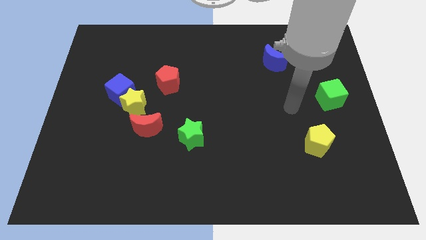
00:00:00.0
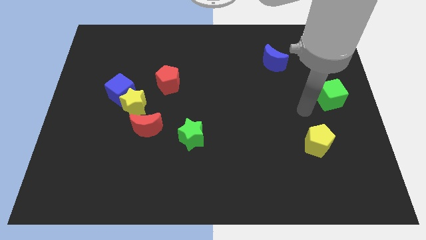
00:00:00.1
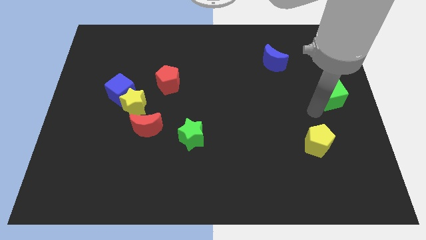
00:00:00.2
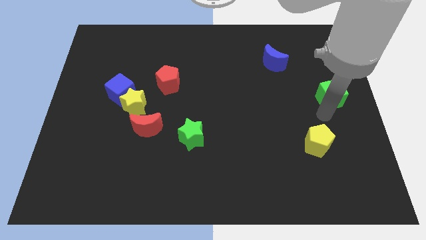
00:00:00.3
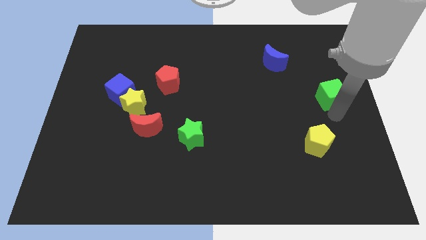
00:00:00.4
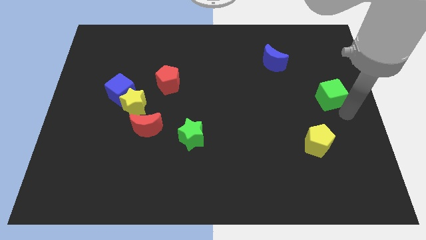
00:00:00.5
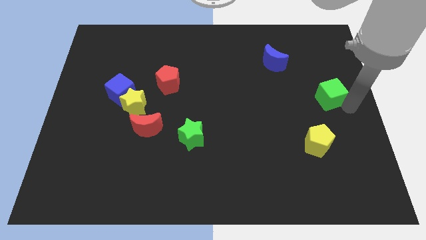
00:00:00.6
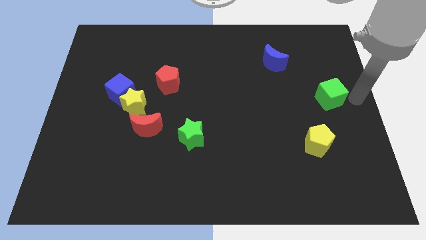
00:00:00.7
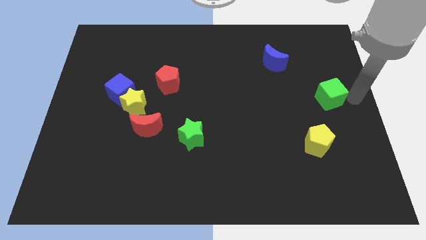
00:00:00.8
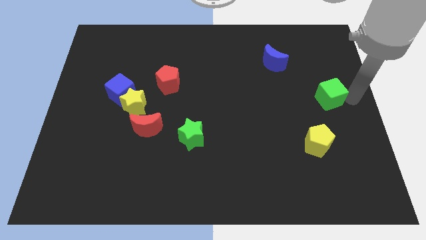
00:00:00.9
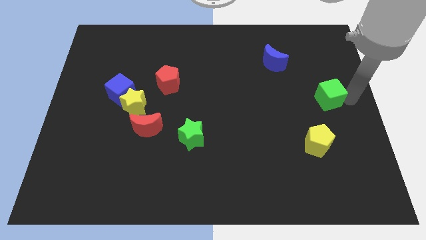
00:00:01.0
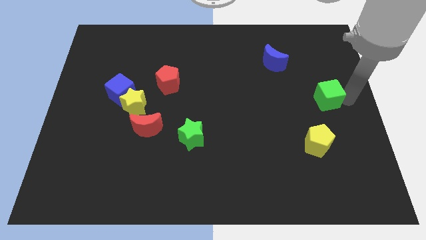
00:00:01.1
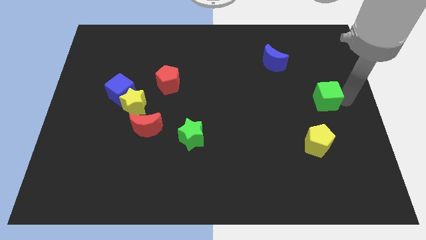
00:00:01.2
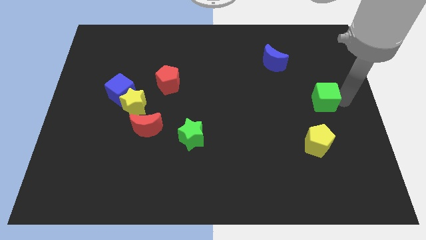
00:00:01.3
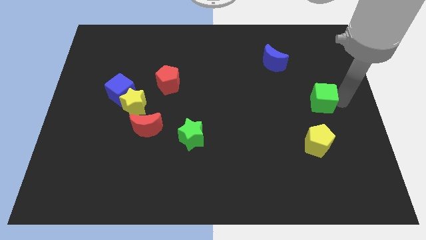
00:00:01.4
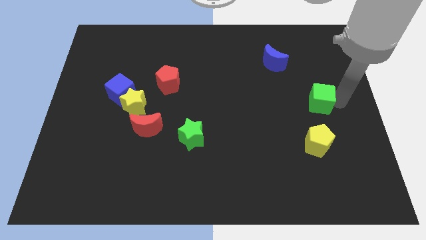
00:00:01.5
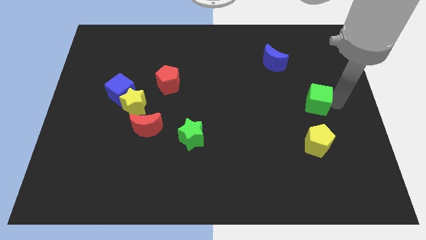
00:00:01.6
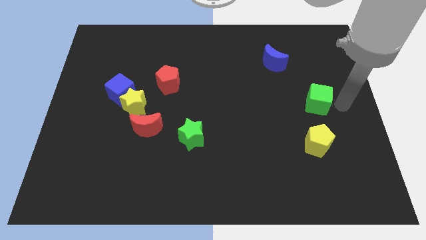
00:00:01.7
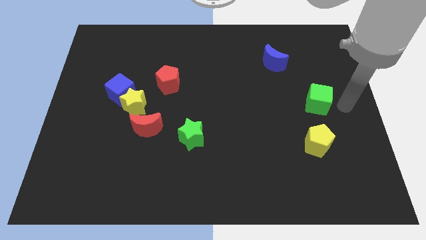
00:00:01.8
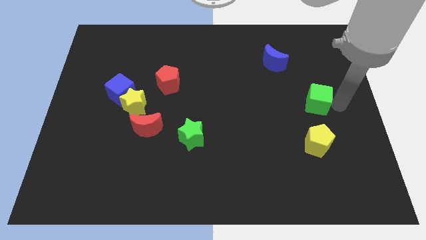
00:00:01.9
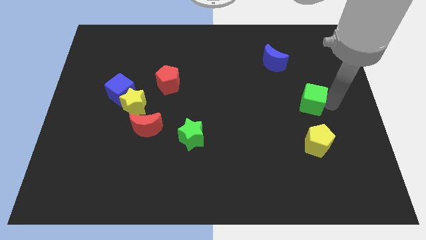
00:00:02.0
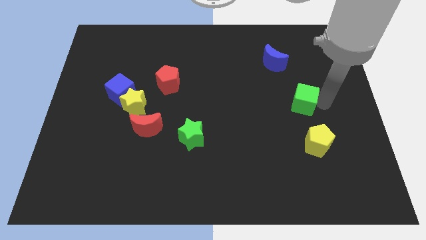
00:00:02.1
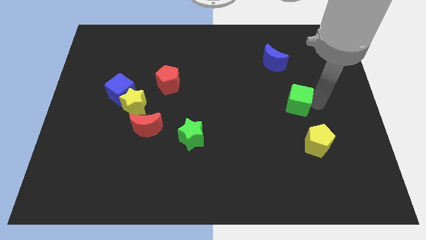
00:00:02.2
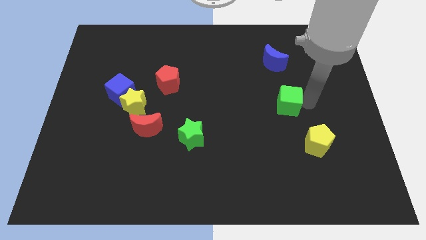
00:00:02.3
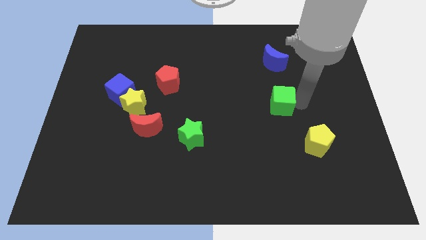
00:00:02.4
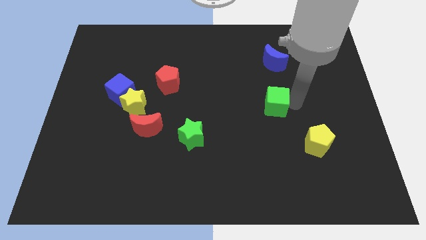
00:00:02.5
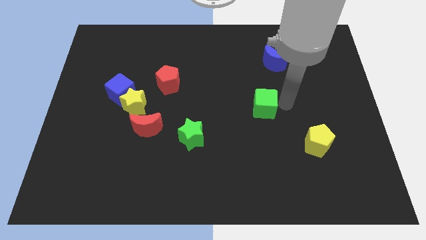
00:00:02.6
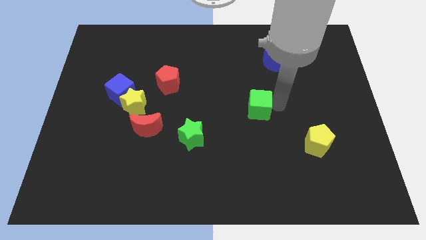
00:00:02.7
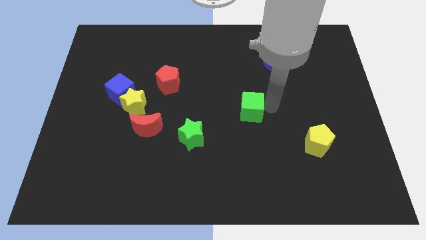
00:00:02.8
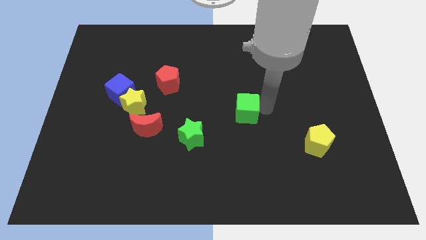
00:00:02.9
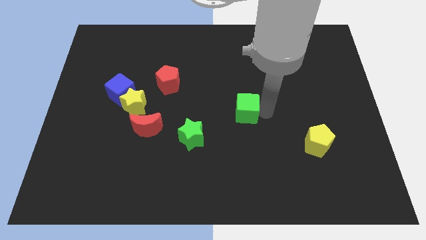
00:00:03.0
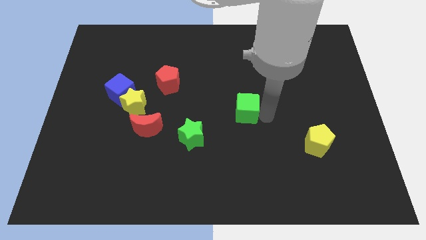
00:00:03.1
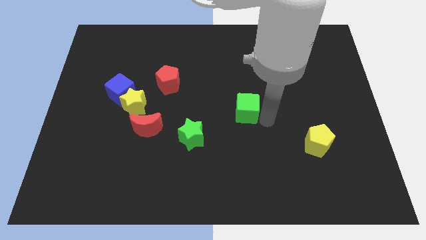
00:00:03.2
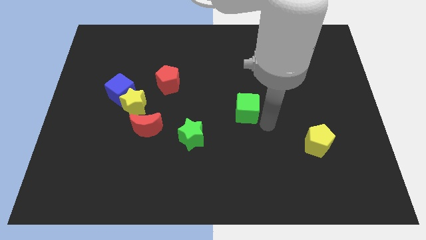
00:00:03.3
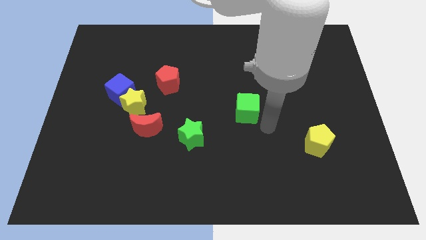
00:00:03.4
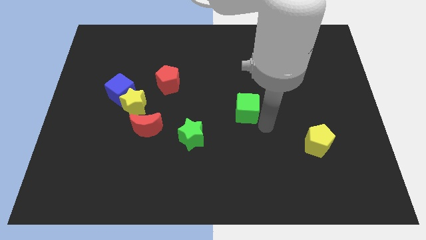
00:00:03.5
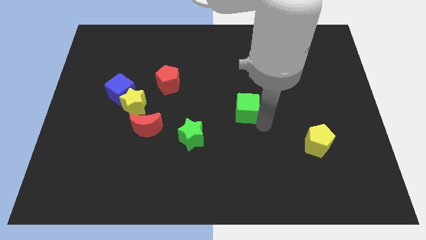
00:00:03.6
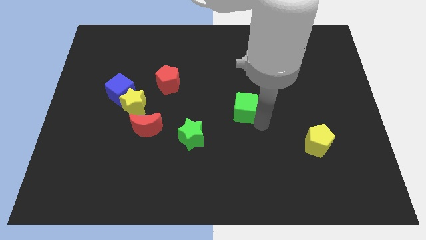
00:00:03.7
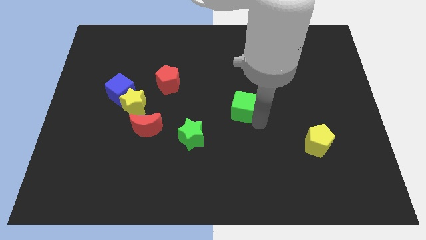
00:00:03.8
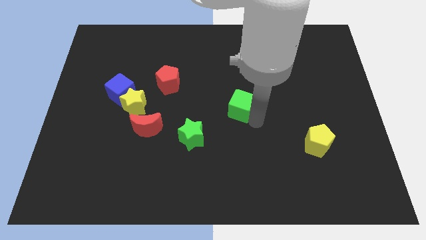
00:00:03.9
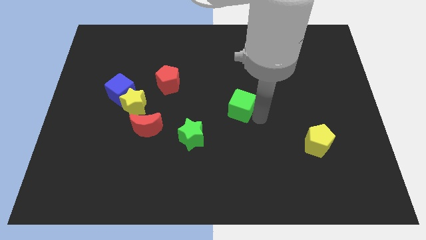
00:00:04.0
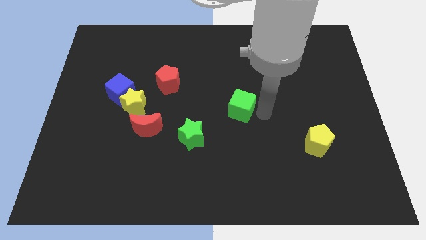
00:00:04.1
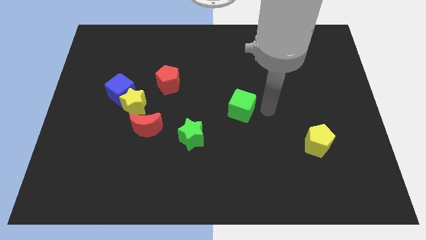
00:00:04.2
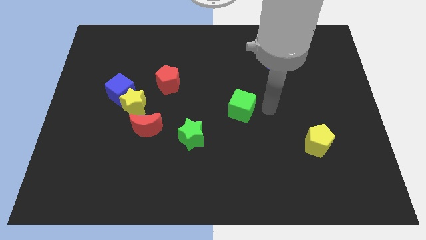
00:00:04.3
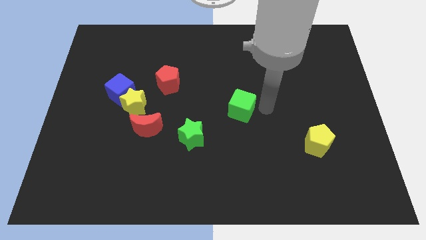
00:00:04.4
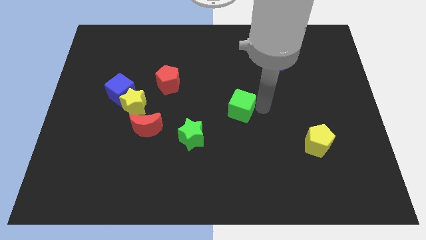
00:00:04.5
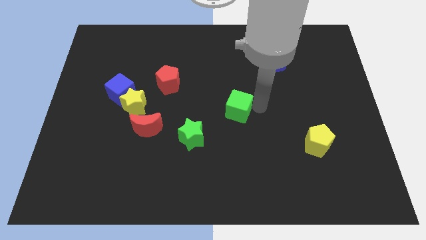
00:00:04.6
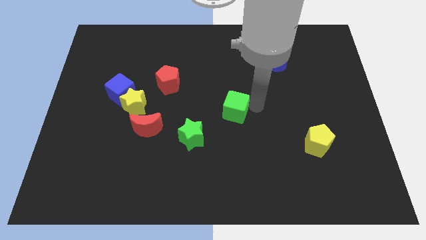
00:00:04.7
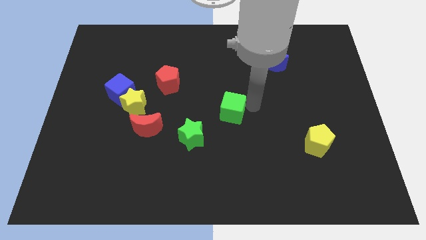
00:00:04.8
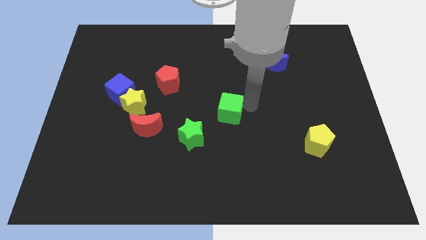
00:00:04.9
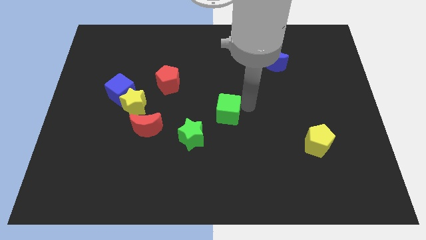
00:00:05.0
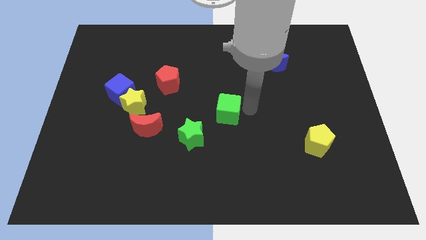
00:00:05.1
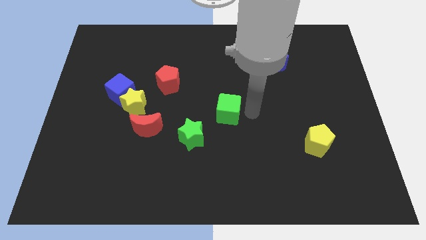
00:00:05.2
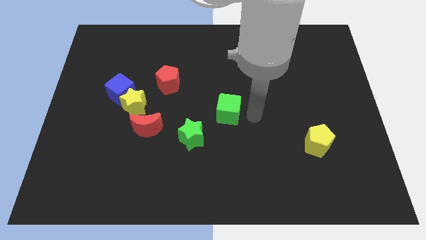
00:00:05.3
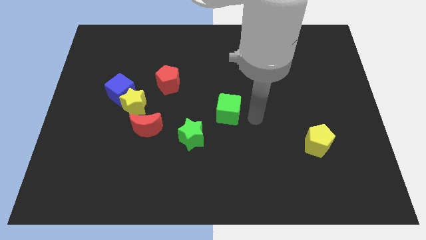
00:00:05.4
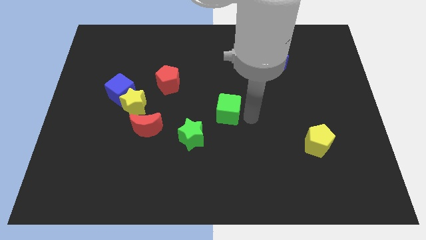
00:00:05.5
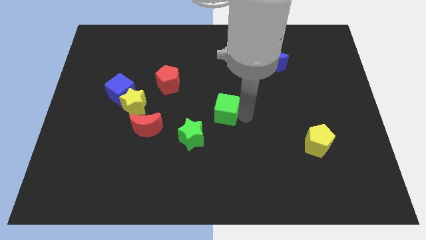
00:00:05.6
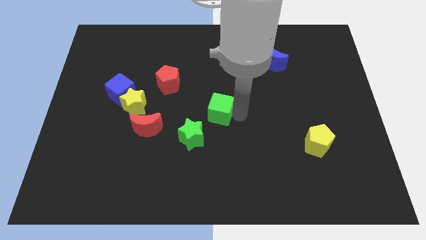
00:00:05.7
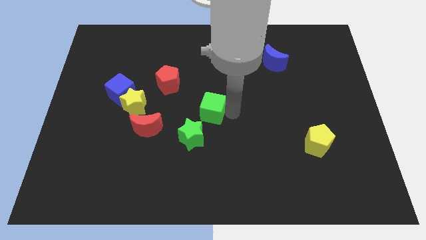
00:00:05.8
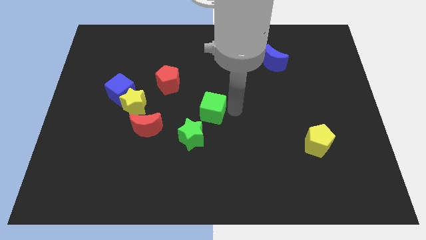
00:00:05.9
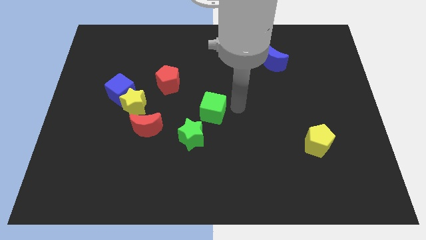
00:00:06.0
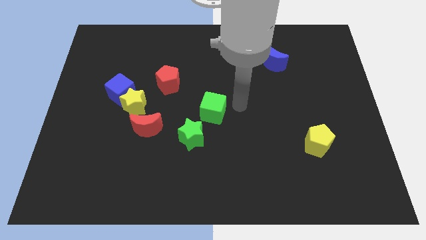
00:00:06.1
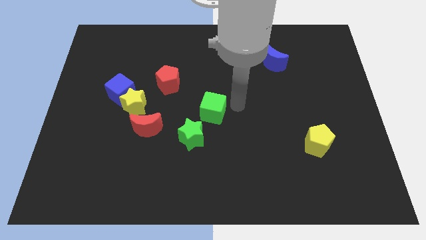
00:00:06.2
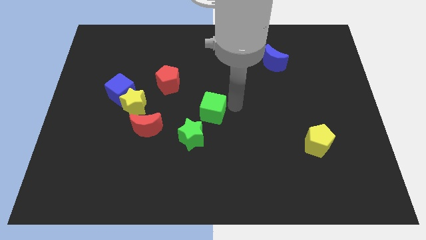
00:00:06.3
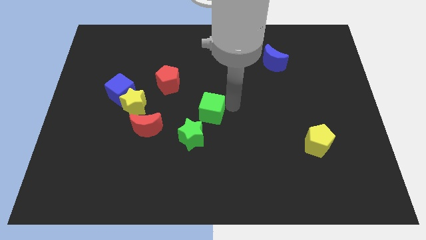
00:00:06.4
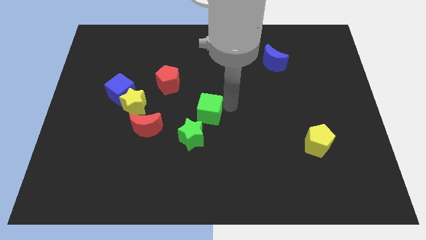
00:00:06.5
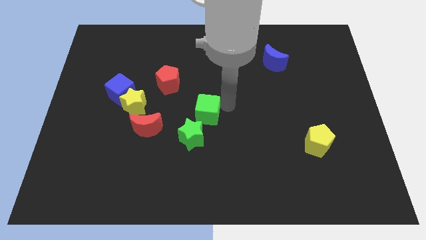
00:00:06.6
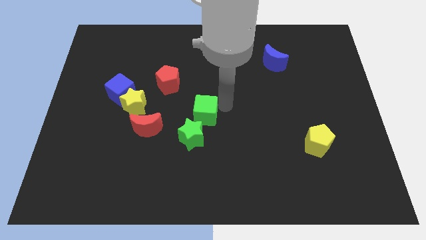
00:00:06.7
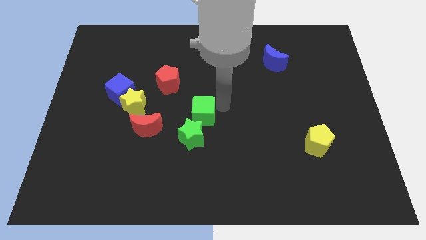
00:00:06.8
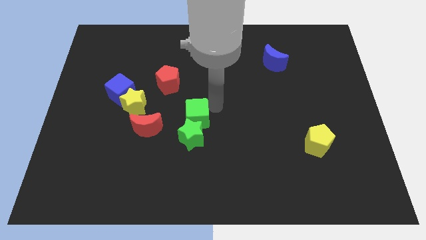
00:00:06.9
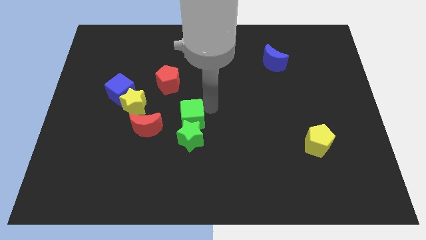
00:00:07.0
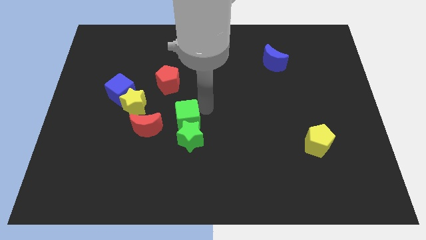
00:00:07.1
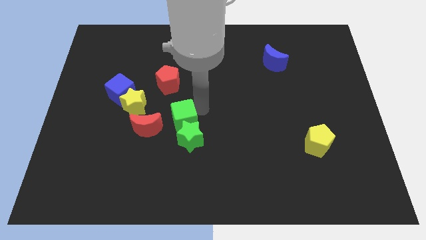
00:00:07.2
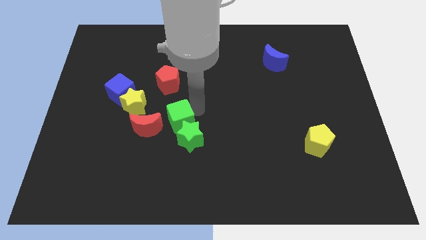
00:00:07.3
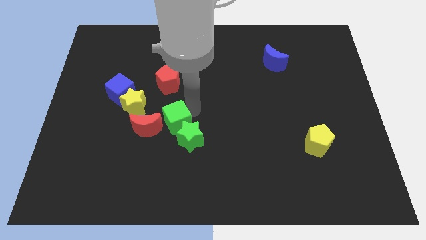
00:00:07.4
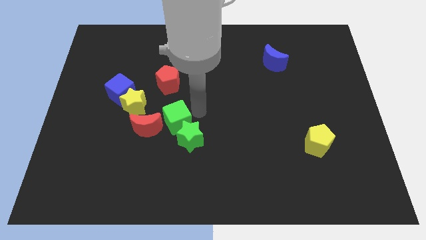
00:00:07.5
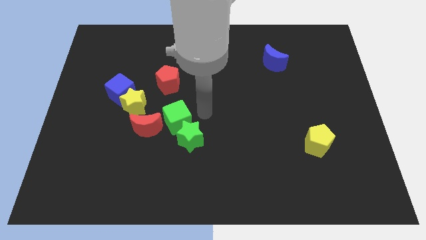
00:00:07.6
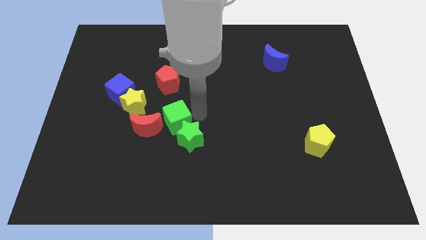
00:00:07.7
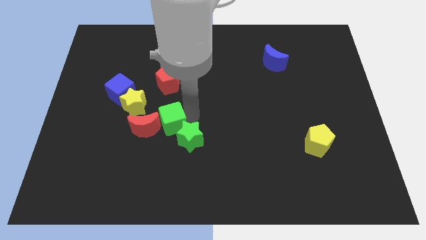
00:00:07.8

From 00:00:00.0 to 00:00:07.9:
push the green cube close to the red moon
